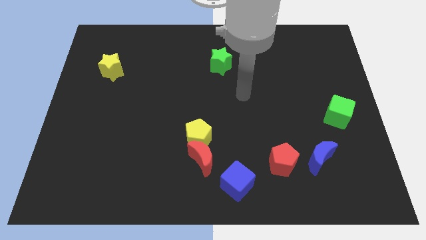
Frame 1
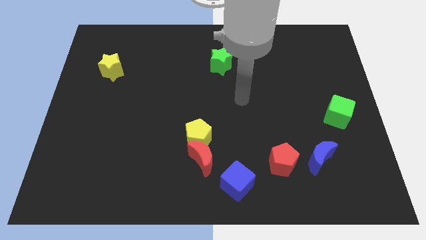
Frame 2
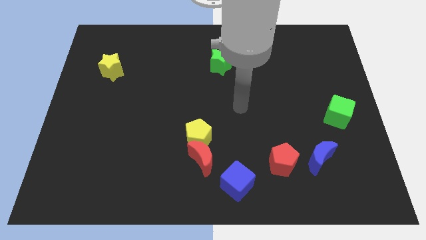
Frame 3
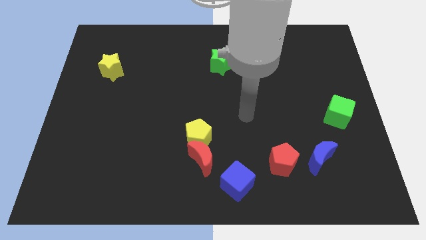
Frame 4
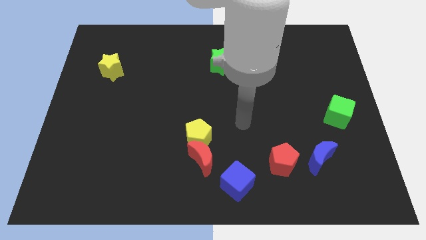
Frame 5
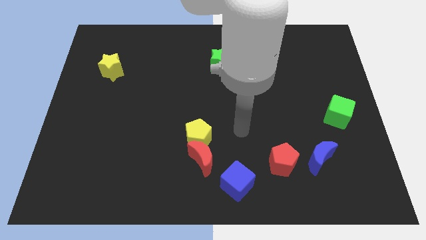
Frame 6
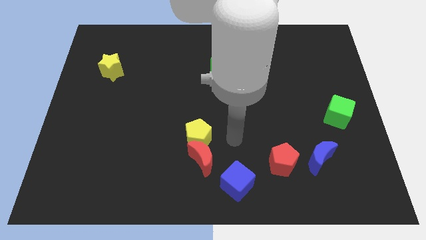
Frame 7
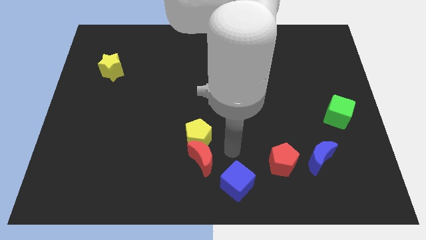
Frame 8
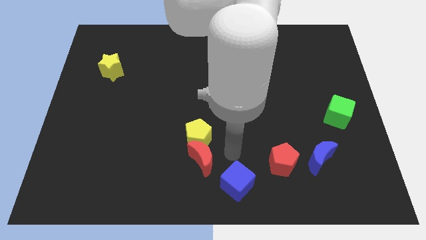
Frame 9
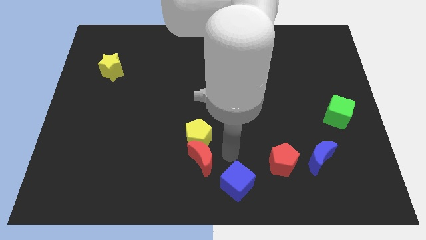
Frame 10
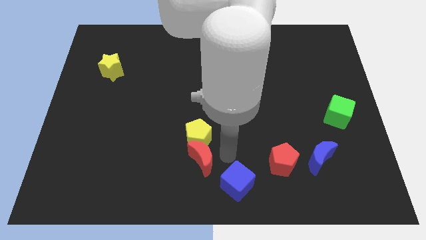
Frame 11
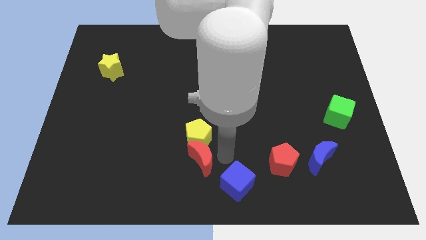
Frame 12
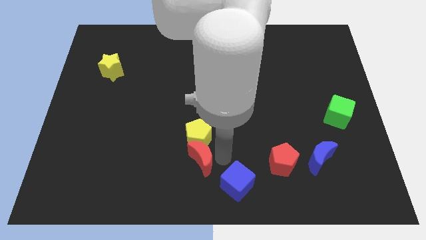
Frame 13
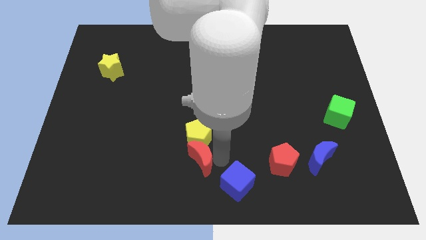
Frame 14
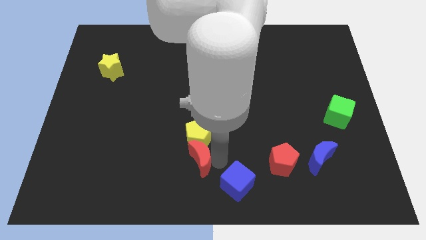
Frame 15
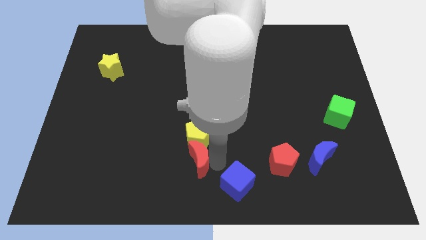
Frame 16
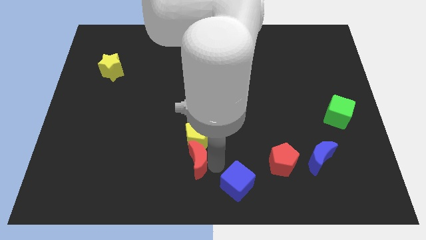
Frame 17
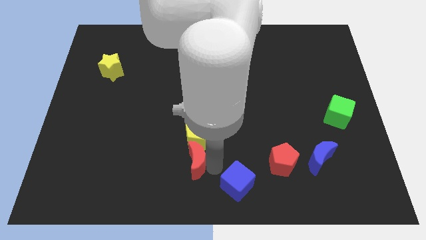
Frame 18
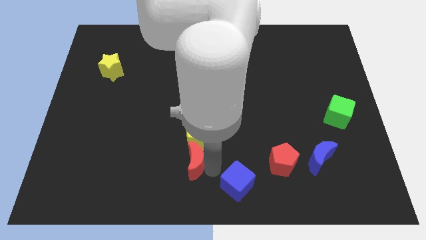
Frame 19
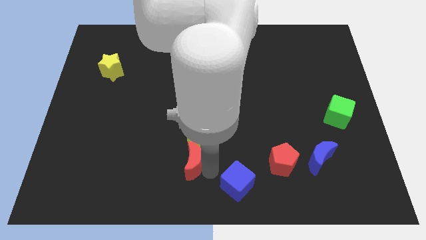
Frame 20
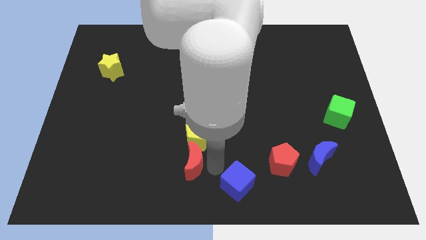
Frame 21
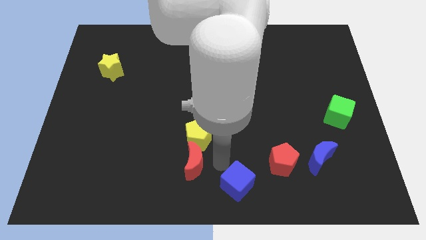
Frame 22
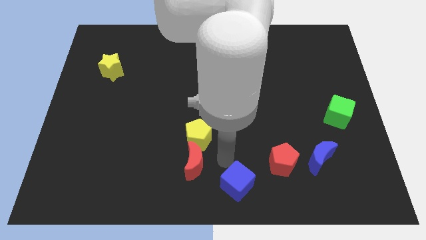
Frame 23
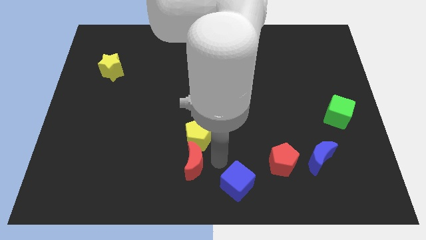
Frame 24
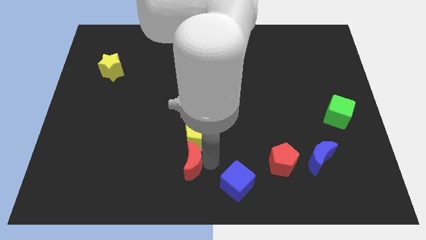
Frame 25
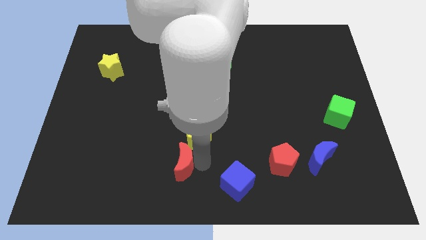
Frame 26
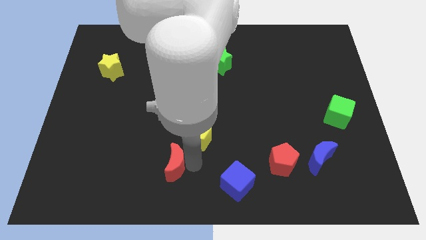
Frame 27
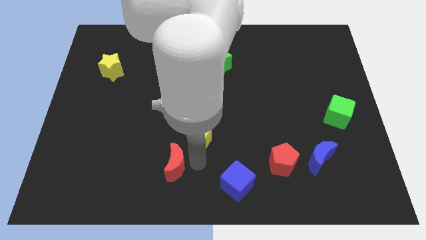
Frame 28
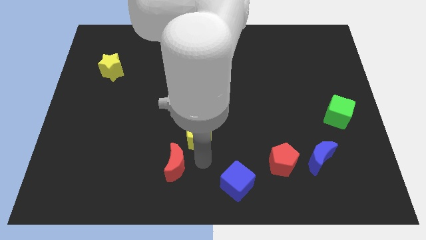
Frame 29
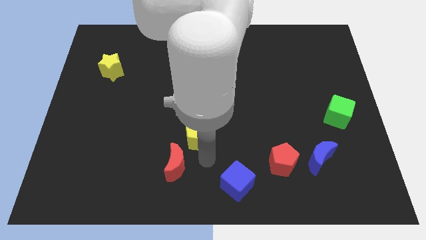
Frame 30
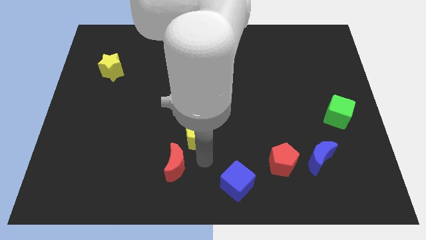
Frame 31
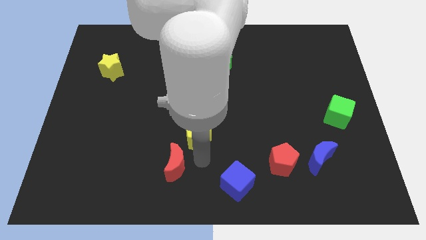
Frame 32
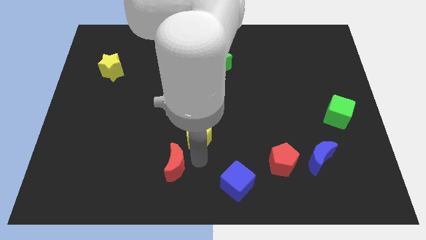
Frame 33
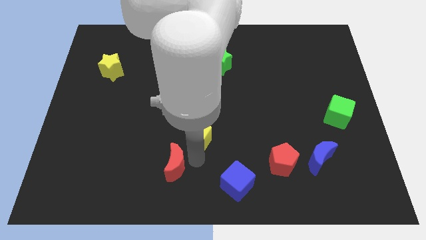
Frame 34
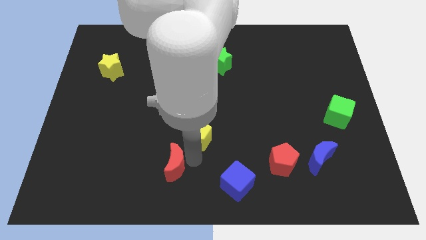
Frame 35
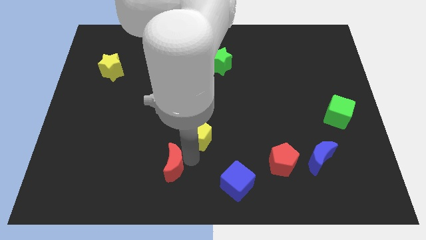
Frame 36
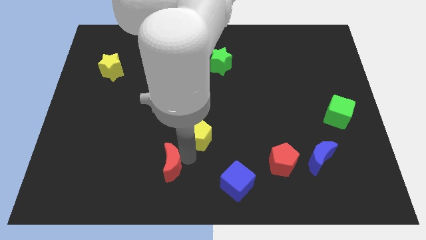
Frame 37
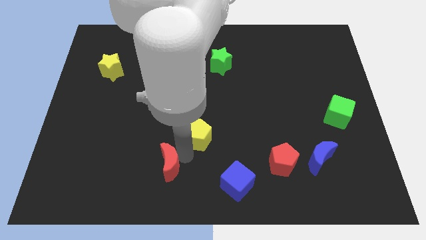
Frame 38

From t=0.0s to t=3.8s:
move the red moon to the left slightly

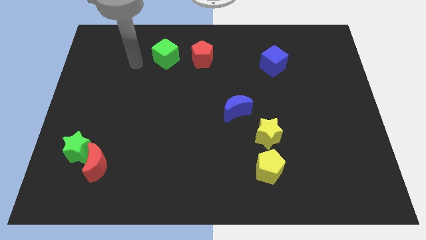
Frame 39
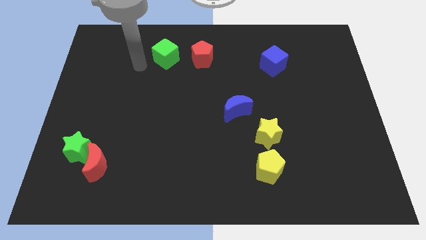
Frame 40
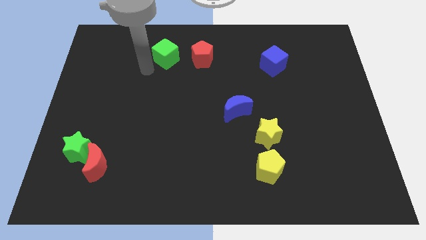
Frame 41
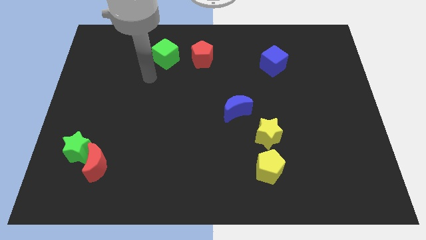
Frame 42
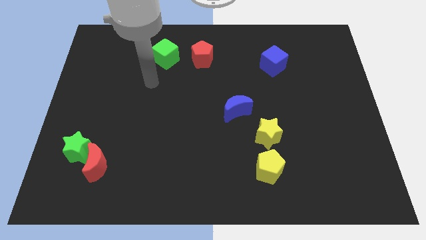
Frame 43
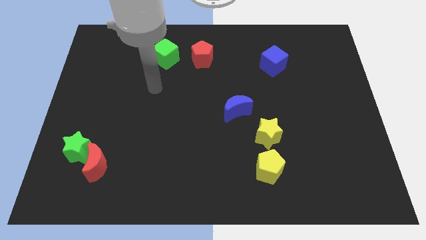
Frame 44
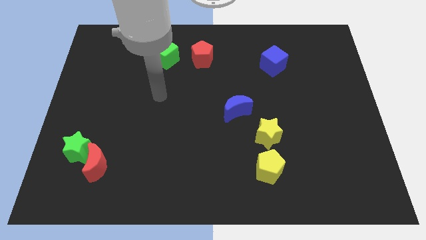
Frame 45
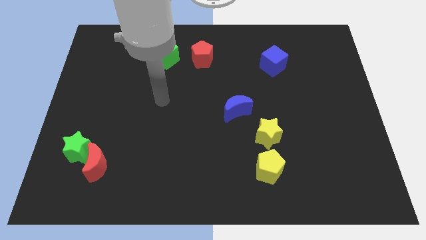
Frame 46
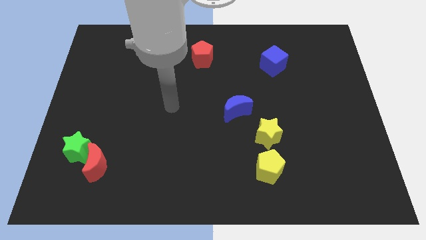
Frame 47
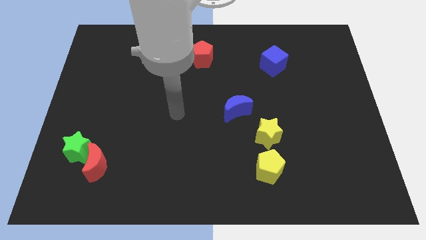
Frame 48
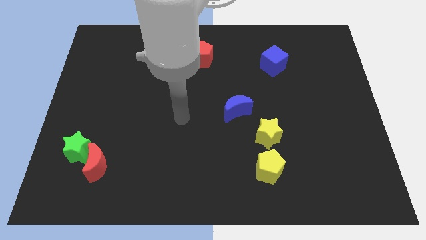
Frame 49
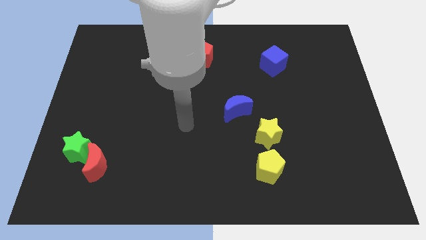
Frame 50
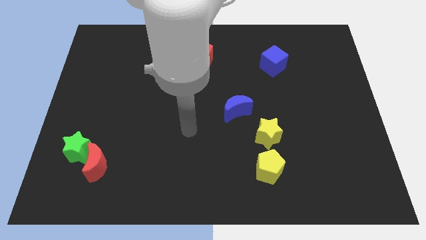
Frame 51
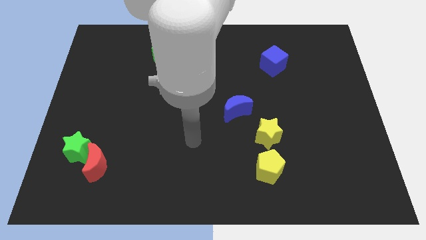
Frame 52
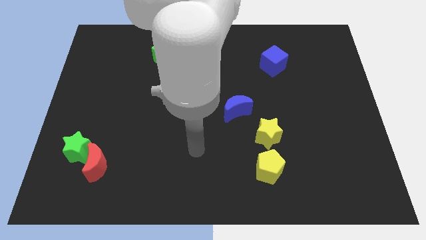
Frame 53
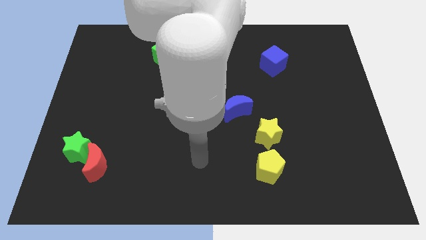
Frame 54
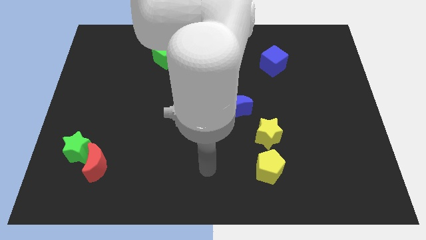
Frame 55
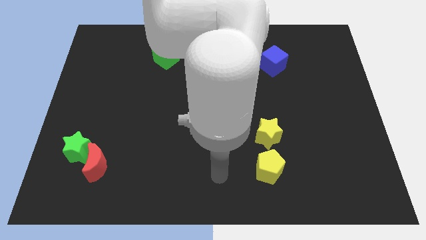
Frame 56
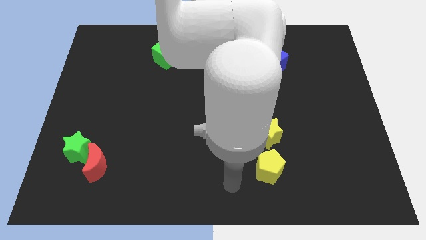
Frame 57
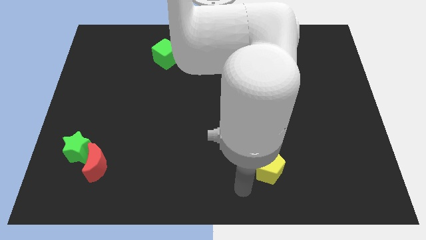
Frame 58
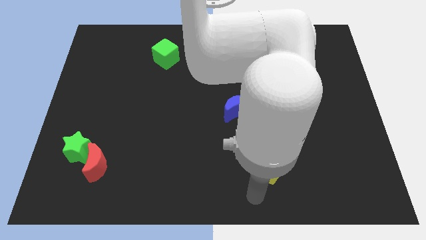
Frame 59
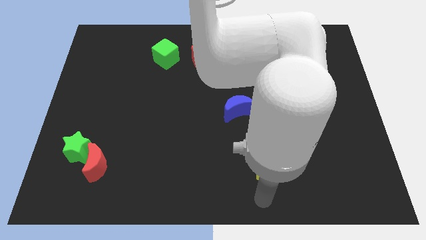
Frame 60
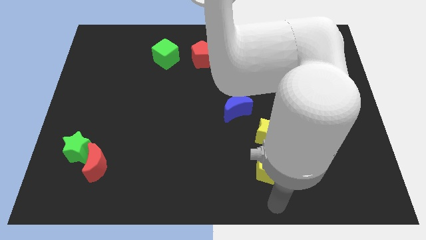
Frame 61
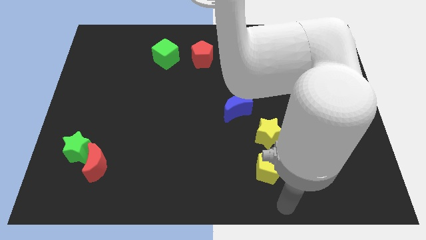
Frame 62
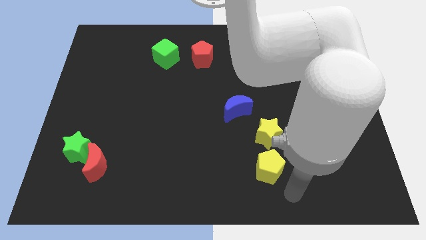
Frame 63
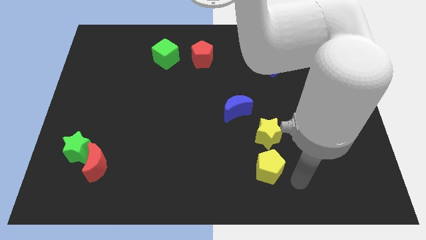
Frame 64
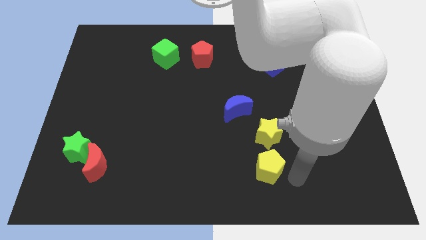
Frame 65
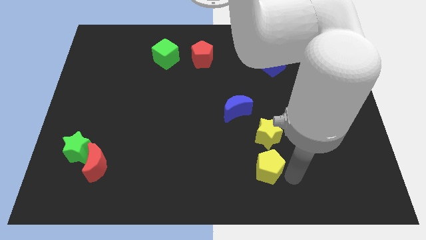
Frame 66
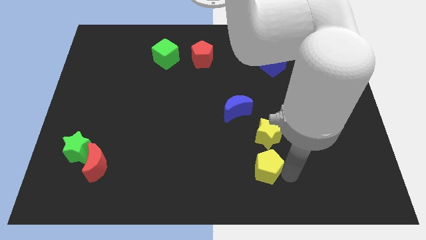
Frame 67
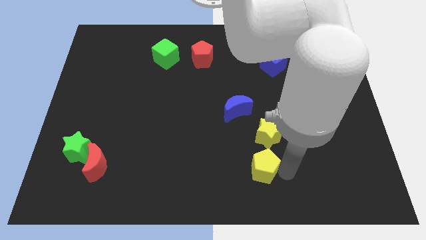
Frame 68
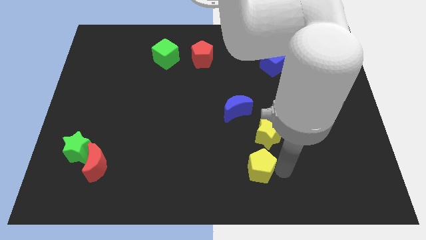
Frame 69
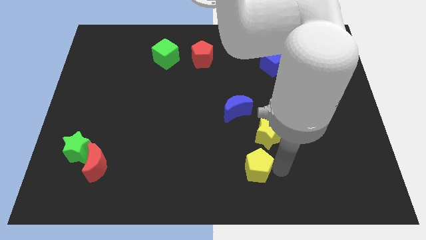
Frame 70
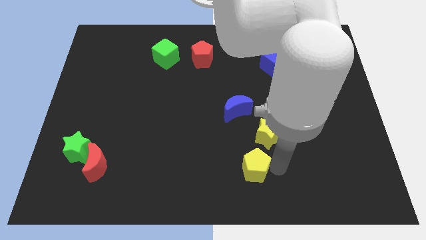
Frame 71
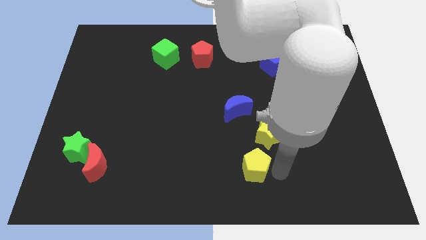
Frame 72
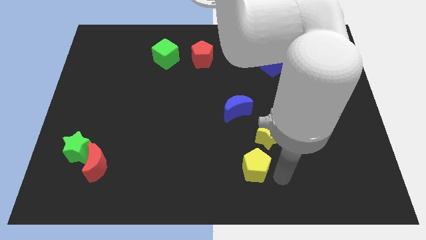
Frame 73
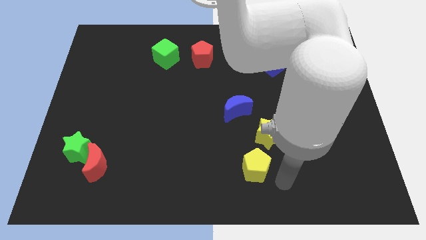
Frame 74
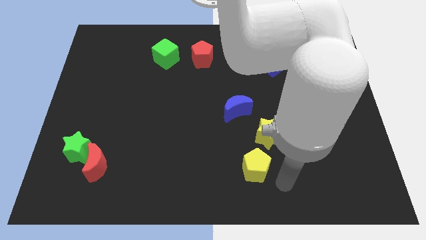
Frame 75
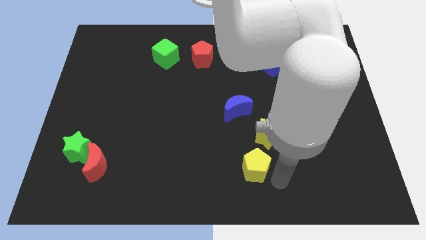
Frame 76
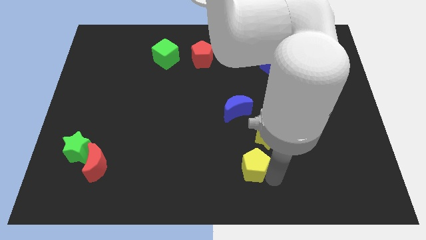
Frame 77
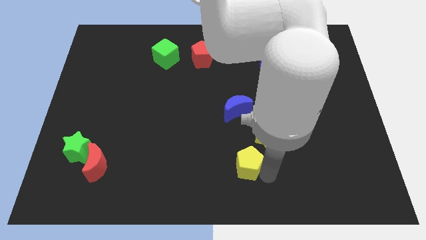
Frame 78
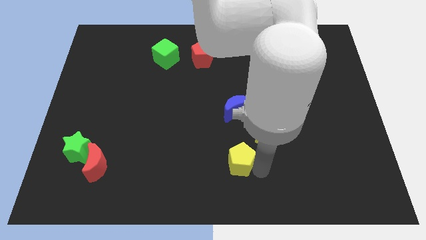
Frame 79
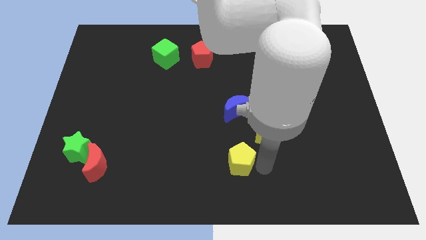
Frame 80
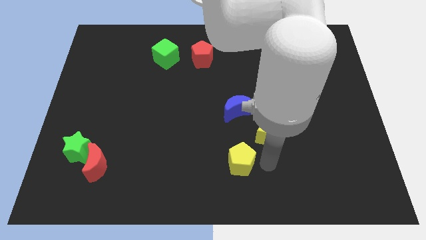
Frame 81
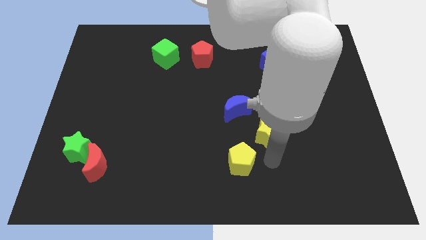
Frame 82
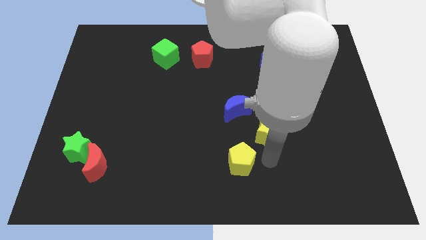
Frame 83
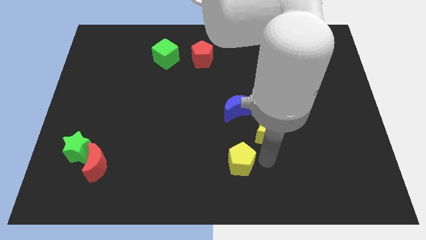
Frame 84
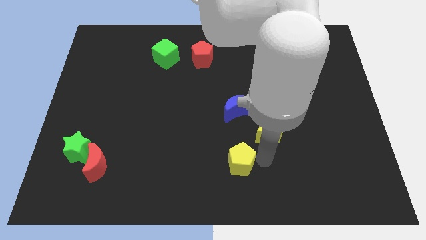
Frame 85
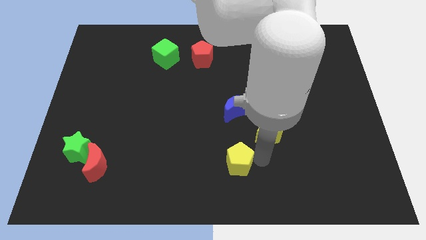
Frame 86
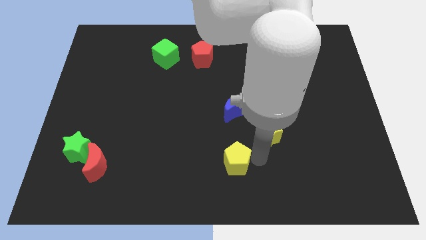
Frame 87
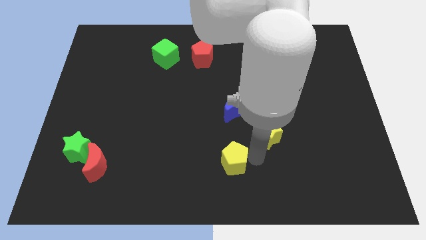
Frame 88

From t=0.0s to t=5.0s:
move the yellow pentagon to the left somewhat
